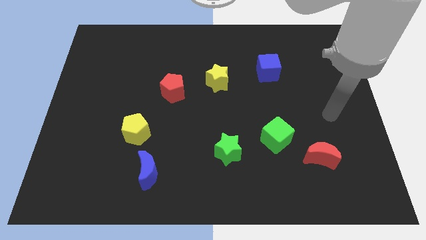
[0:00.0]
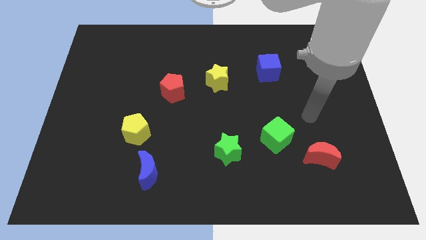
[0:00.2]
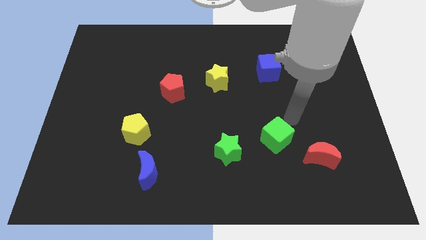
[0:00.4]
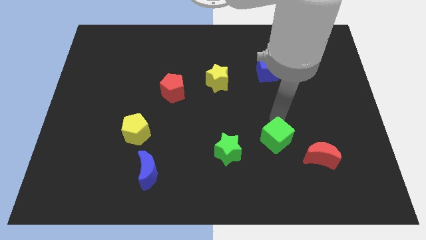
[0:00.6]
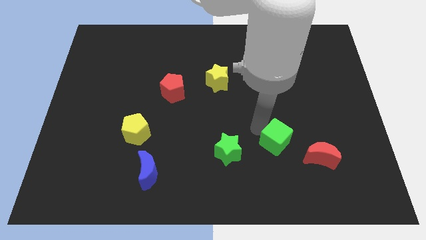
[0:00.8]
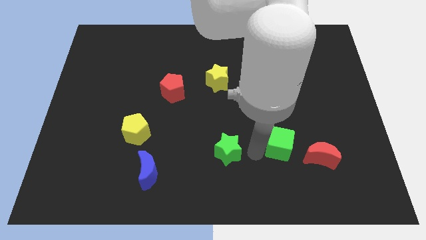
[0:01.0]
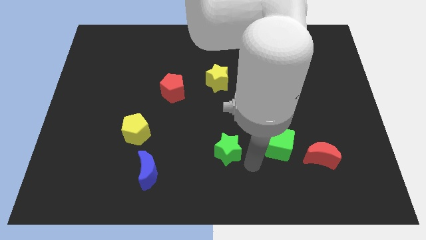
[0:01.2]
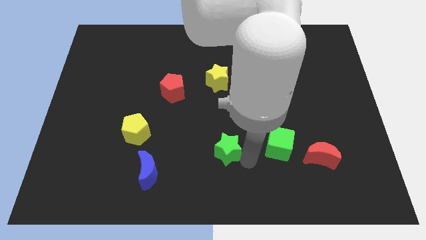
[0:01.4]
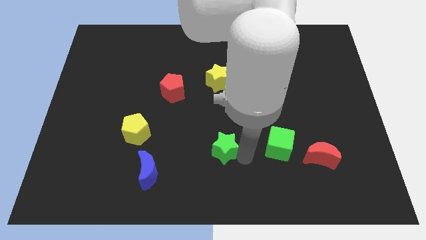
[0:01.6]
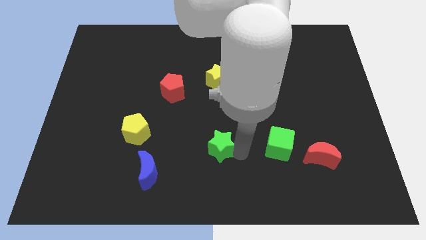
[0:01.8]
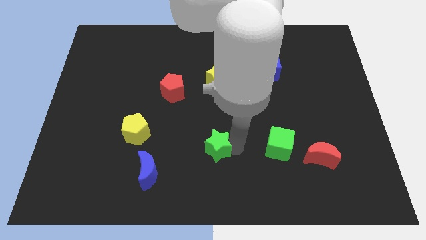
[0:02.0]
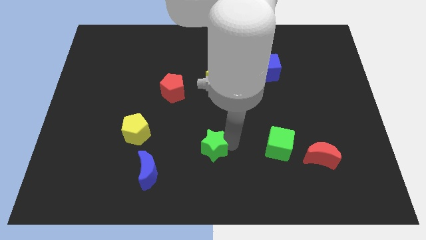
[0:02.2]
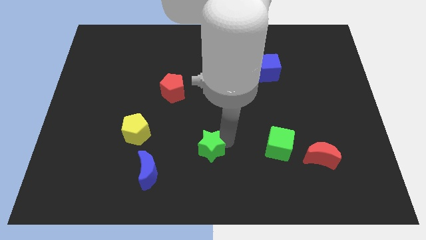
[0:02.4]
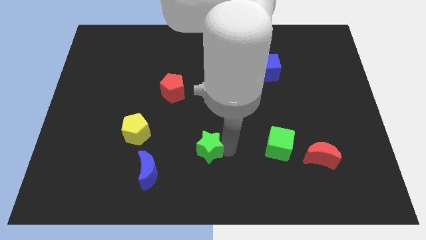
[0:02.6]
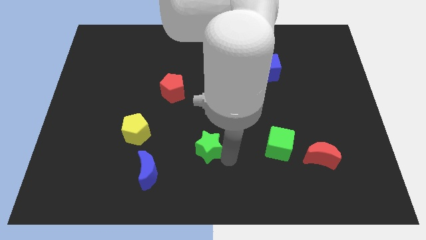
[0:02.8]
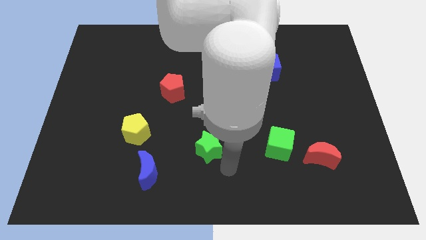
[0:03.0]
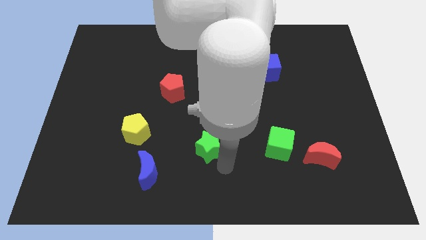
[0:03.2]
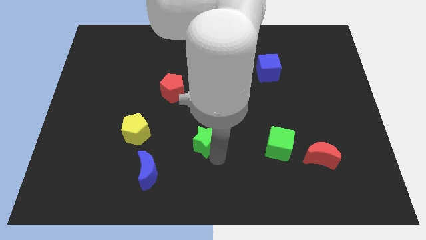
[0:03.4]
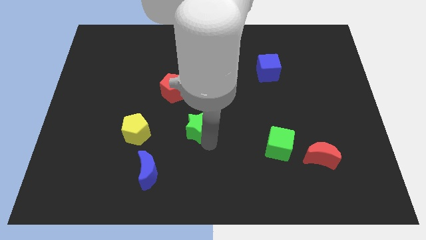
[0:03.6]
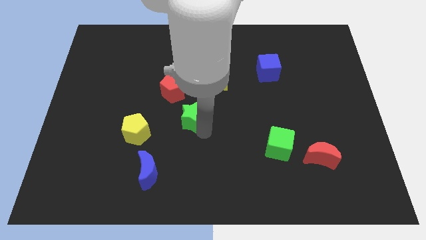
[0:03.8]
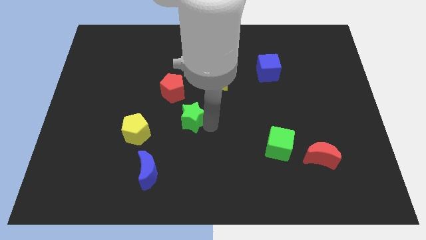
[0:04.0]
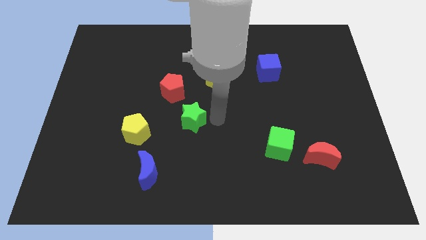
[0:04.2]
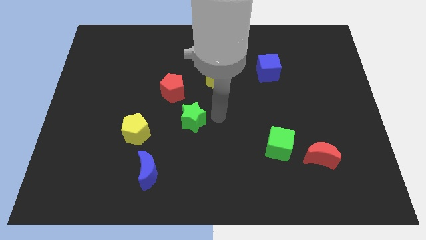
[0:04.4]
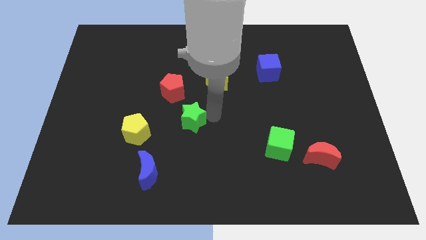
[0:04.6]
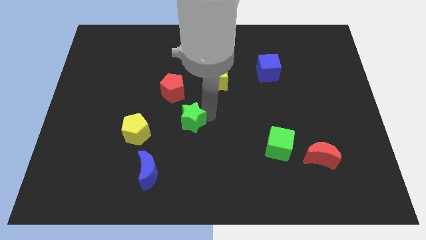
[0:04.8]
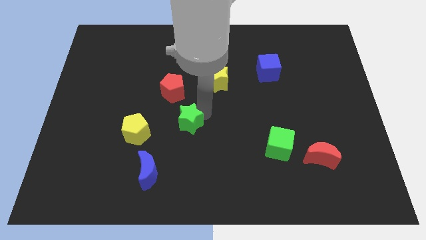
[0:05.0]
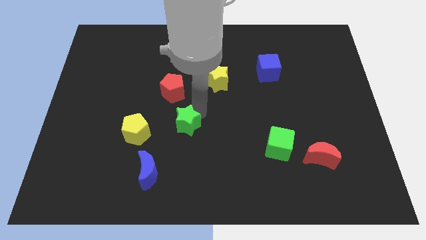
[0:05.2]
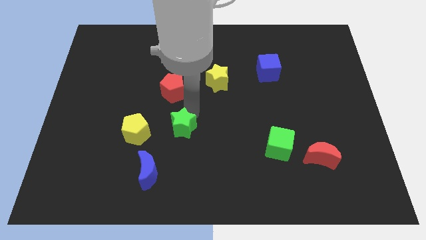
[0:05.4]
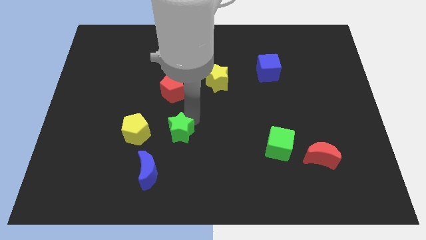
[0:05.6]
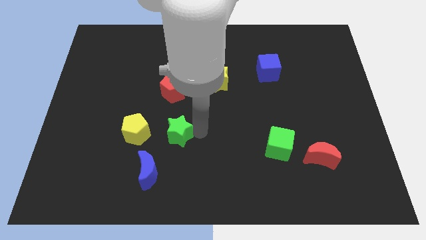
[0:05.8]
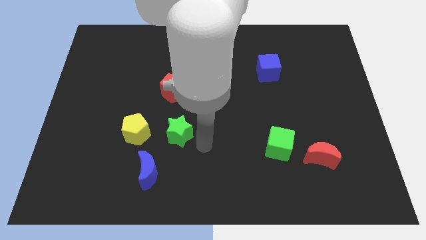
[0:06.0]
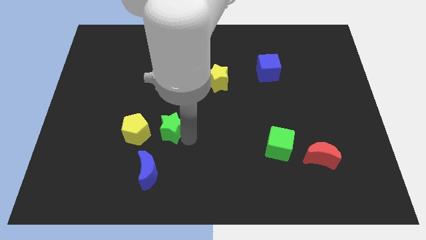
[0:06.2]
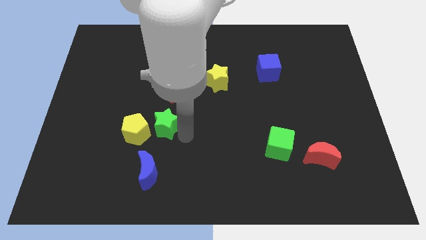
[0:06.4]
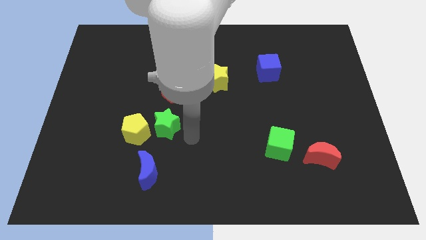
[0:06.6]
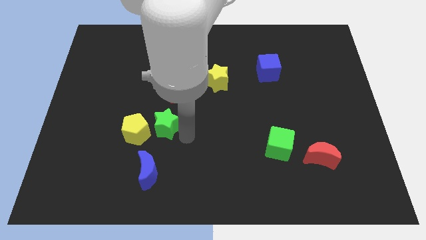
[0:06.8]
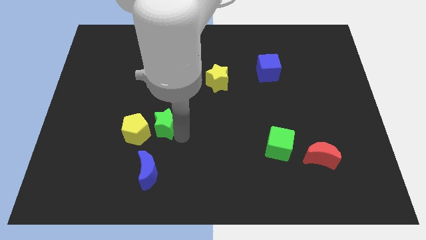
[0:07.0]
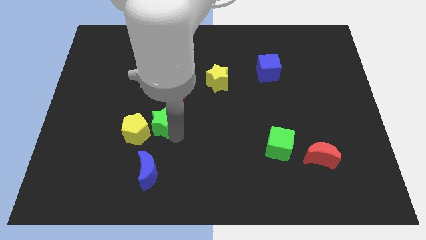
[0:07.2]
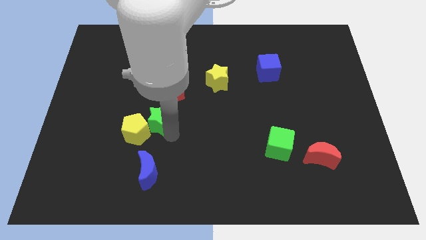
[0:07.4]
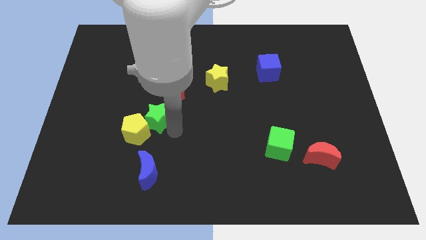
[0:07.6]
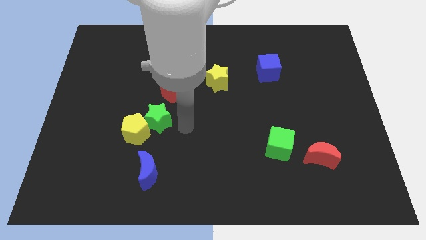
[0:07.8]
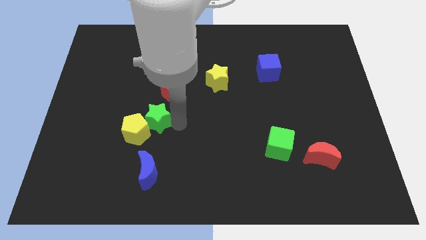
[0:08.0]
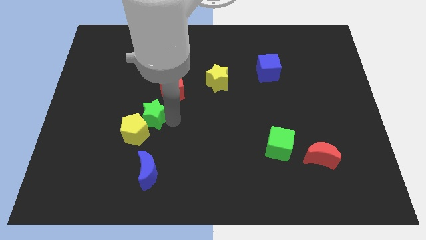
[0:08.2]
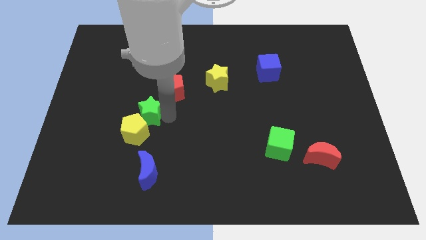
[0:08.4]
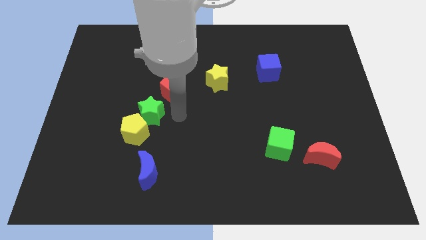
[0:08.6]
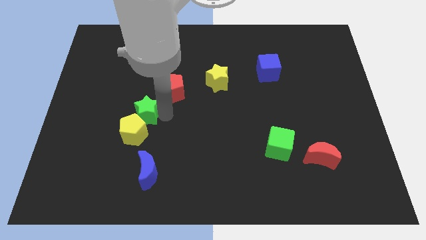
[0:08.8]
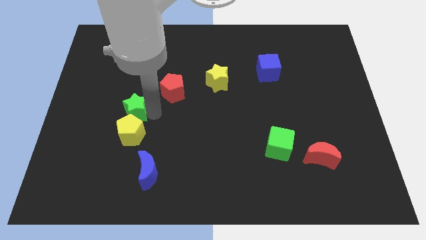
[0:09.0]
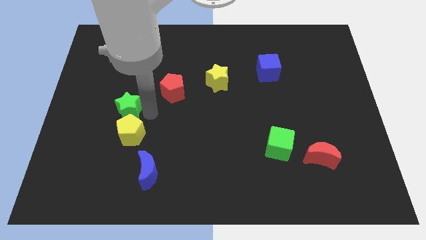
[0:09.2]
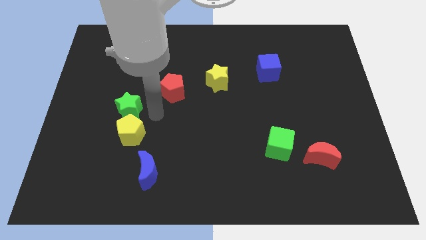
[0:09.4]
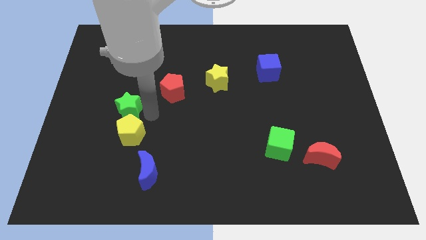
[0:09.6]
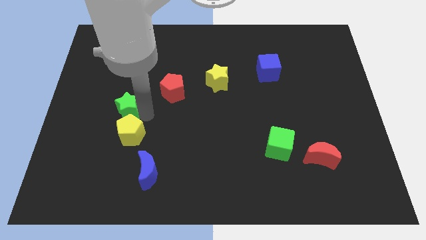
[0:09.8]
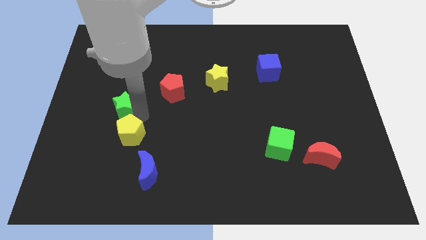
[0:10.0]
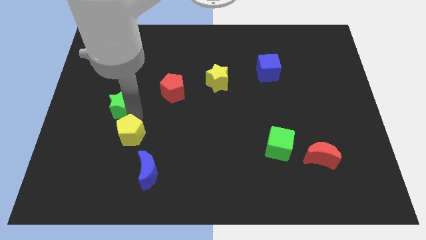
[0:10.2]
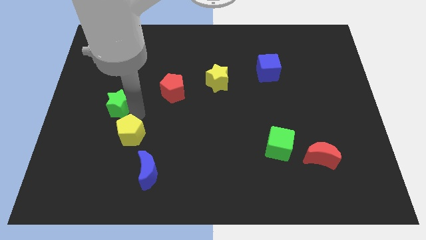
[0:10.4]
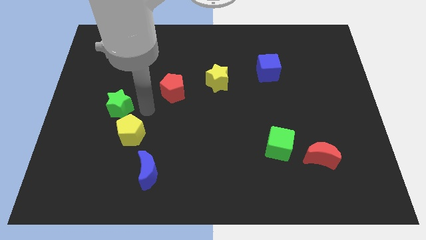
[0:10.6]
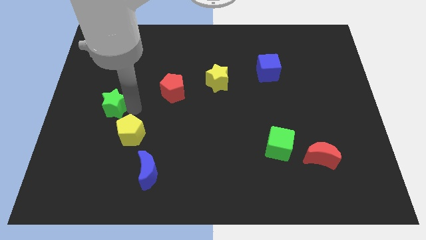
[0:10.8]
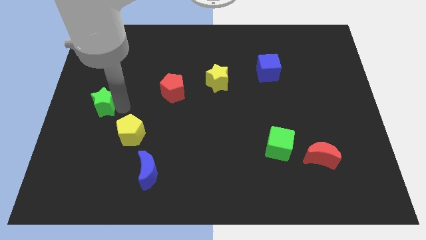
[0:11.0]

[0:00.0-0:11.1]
move the green star to the left side of the board

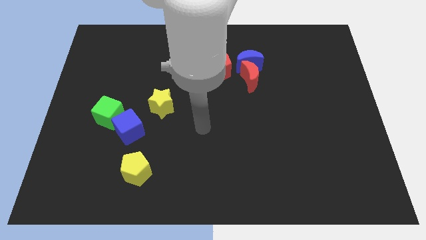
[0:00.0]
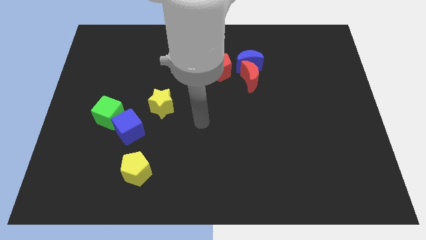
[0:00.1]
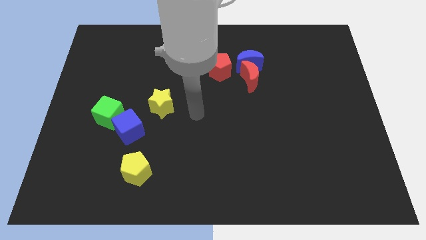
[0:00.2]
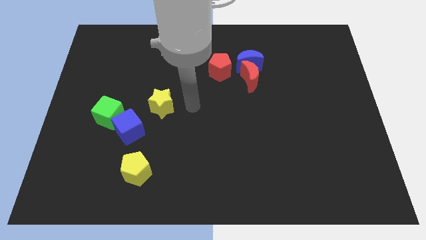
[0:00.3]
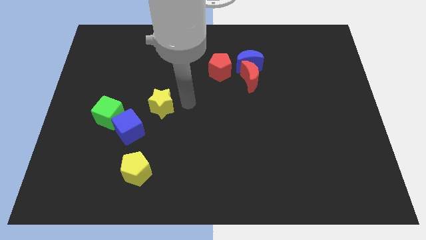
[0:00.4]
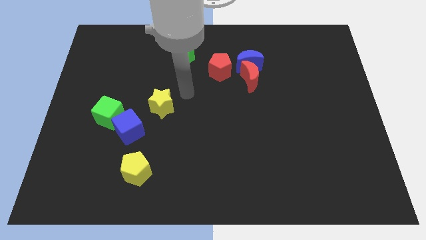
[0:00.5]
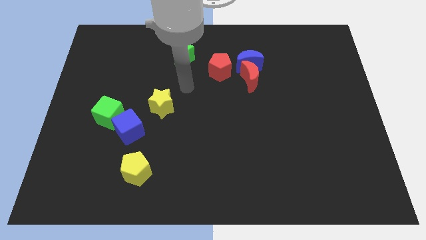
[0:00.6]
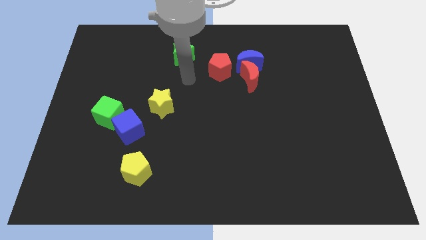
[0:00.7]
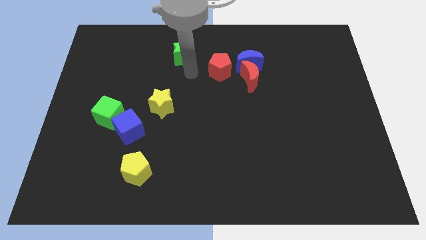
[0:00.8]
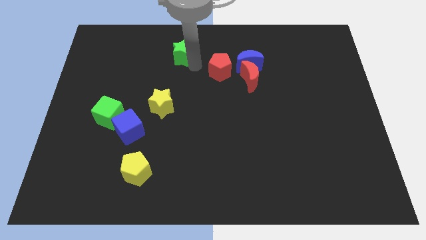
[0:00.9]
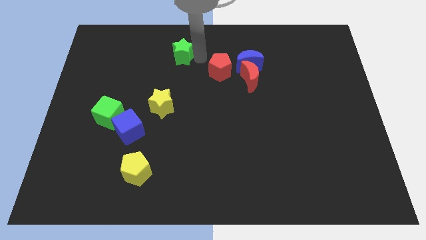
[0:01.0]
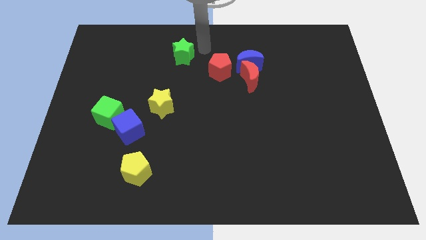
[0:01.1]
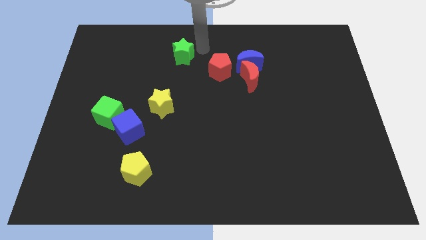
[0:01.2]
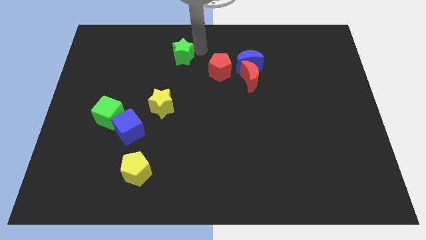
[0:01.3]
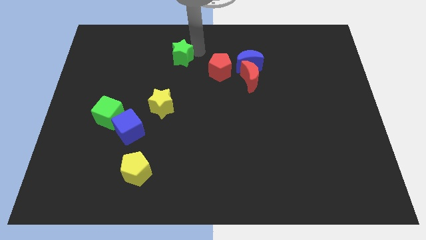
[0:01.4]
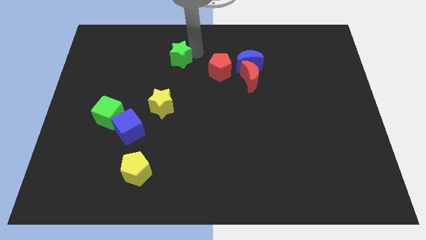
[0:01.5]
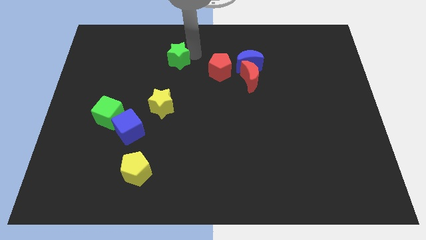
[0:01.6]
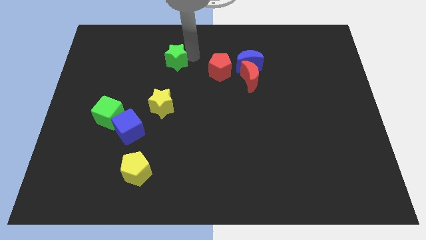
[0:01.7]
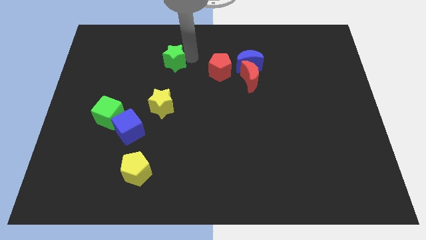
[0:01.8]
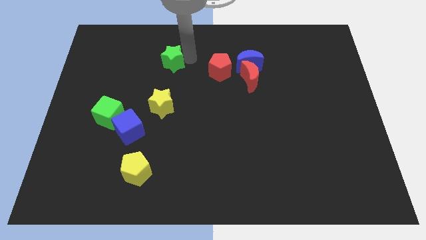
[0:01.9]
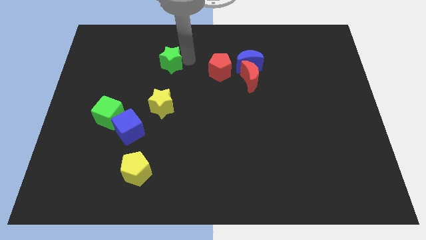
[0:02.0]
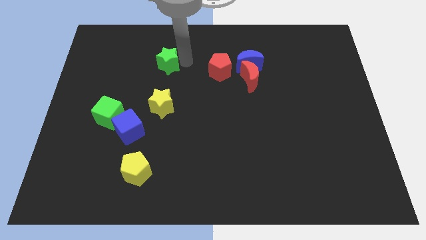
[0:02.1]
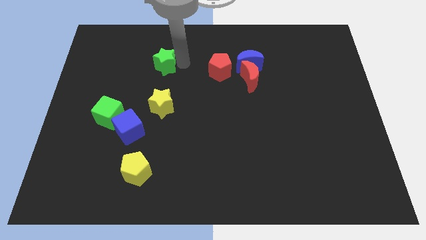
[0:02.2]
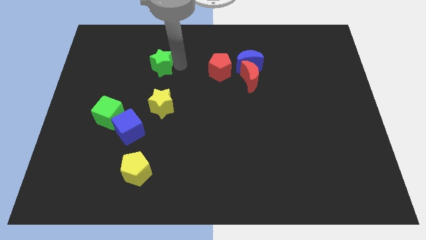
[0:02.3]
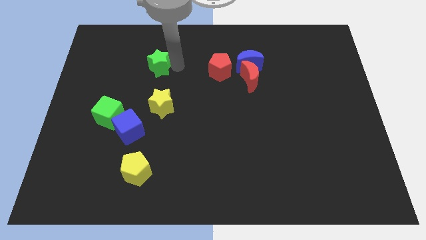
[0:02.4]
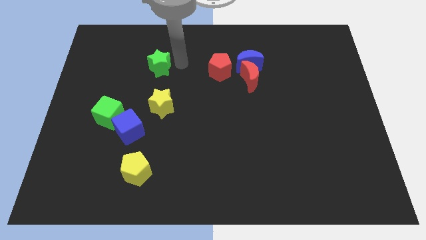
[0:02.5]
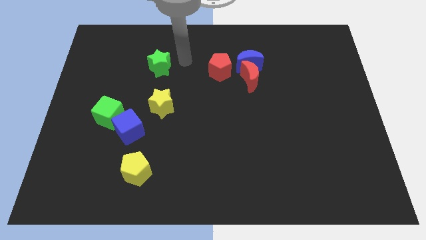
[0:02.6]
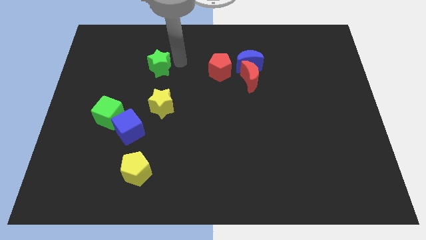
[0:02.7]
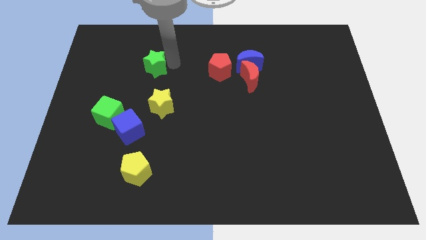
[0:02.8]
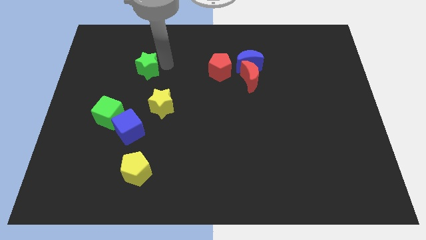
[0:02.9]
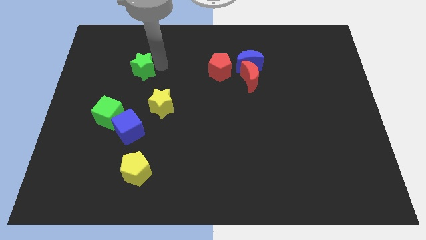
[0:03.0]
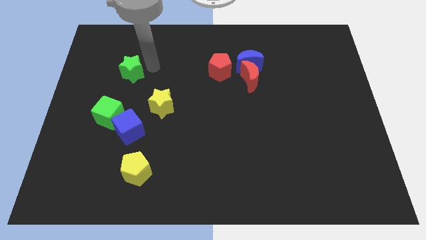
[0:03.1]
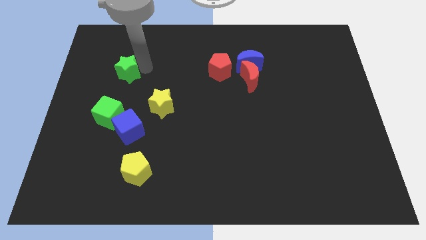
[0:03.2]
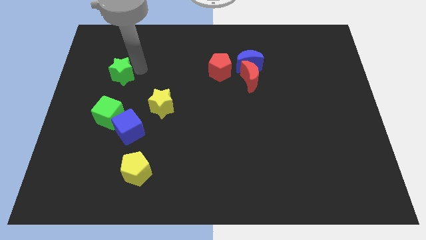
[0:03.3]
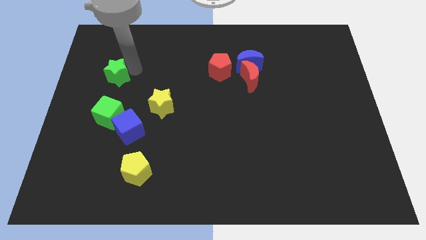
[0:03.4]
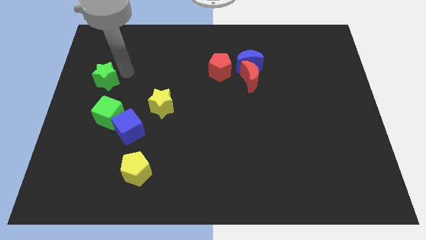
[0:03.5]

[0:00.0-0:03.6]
push the green star to the left side
